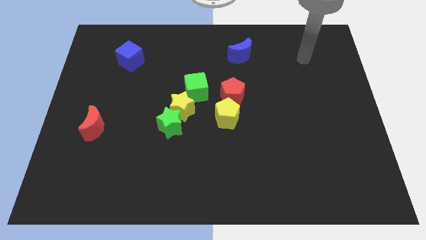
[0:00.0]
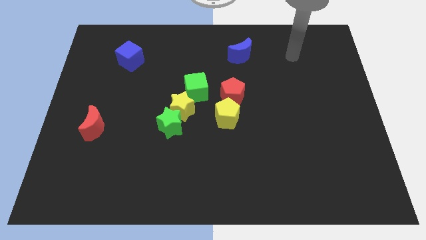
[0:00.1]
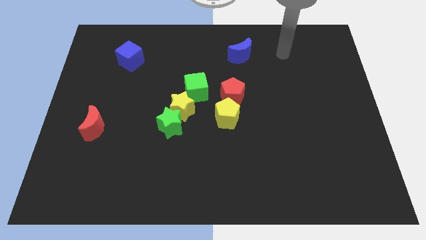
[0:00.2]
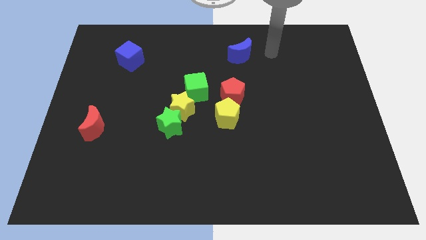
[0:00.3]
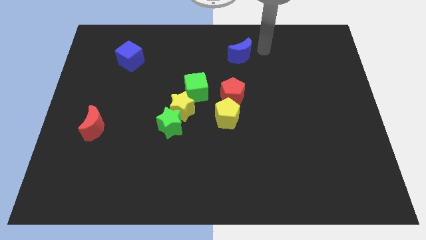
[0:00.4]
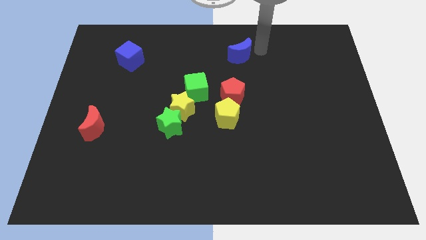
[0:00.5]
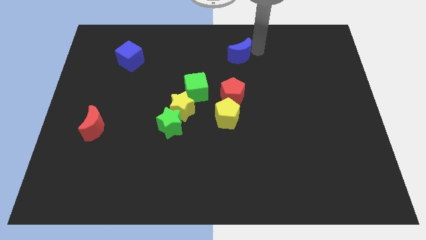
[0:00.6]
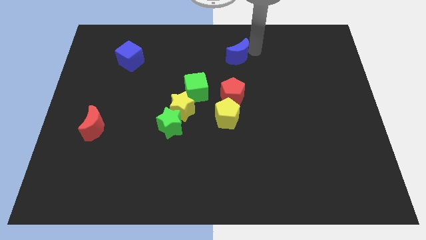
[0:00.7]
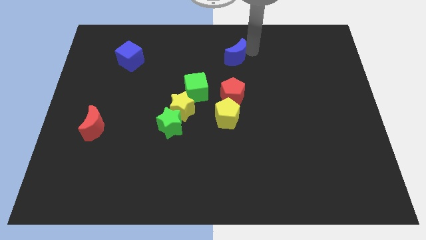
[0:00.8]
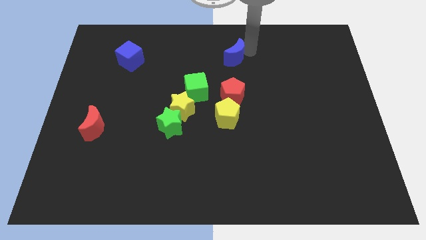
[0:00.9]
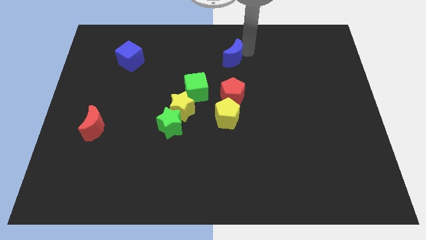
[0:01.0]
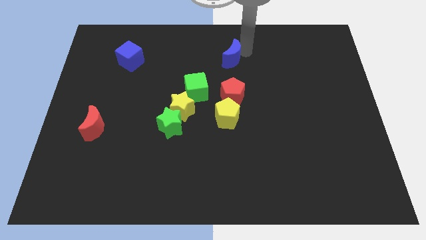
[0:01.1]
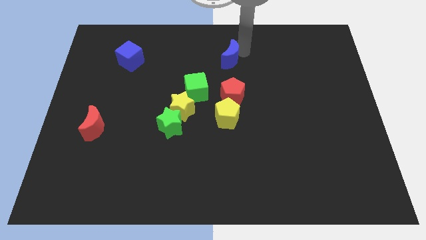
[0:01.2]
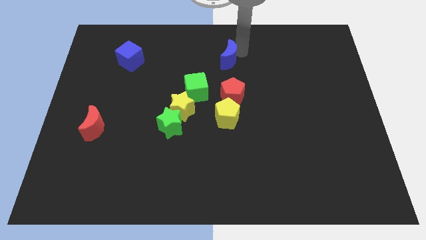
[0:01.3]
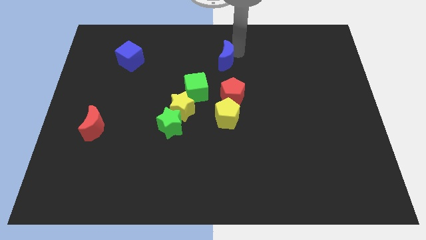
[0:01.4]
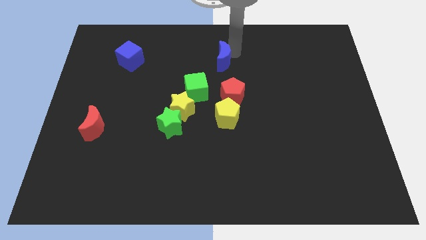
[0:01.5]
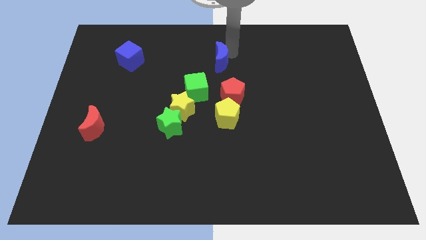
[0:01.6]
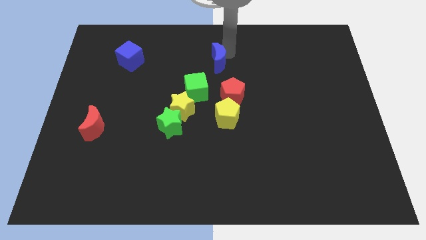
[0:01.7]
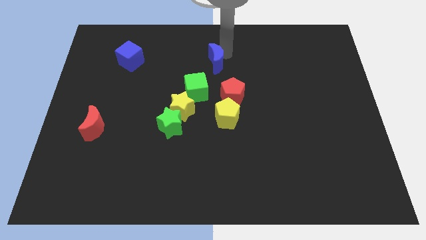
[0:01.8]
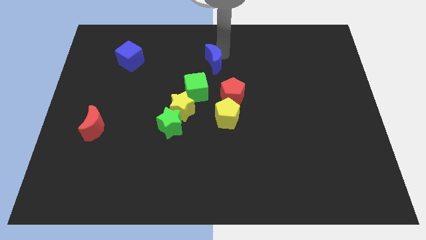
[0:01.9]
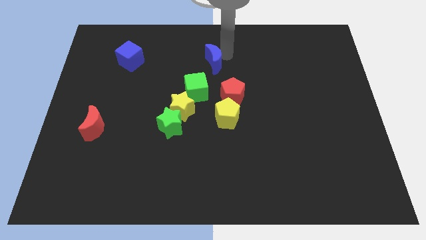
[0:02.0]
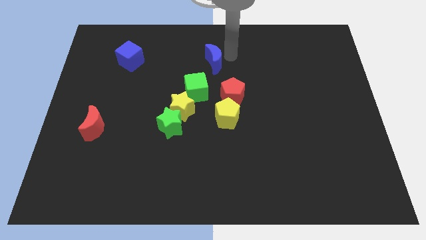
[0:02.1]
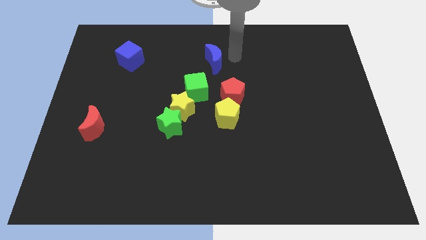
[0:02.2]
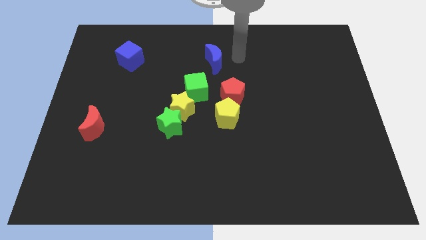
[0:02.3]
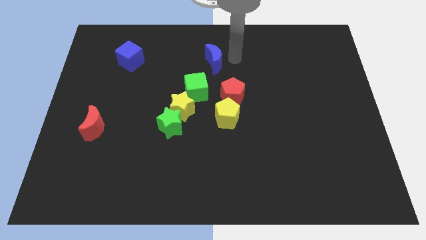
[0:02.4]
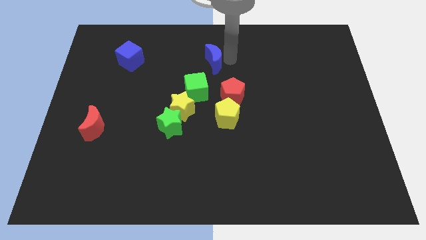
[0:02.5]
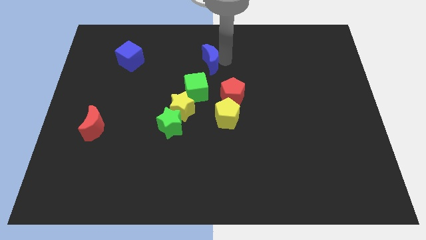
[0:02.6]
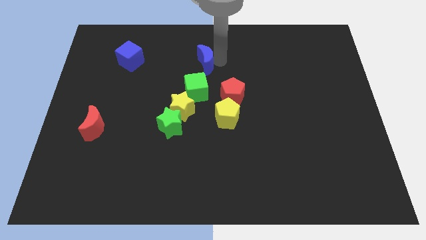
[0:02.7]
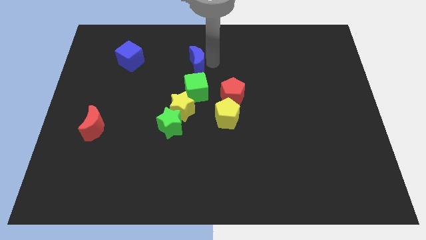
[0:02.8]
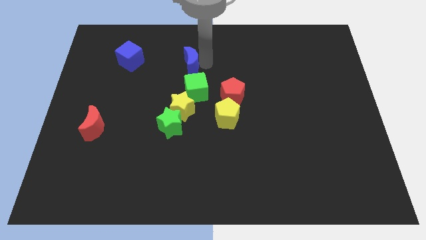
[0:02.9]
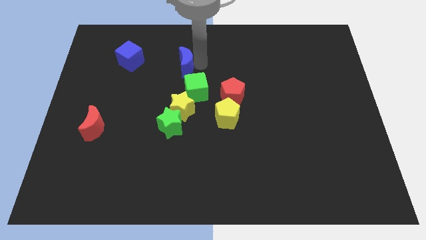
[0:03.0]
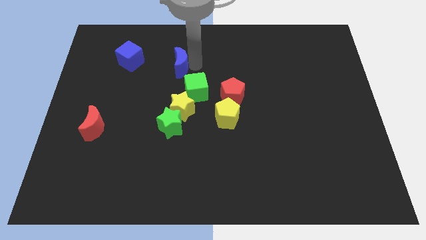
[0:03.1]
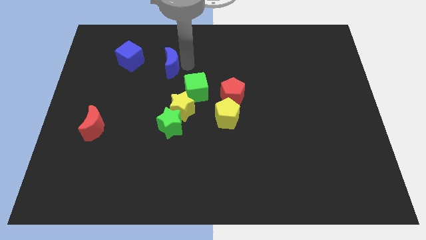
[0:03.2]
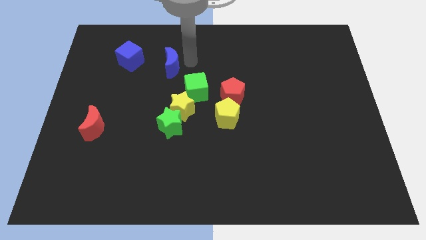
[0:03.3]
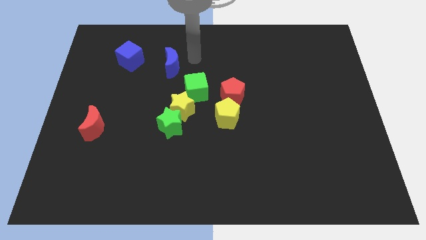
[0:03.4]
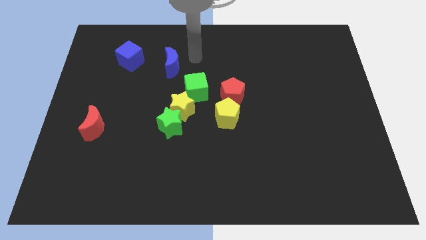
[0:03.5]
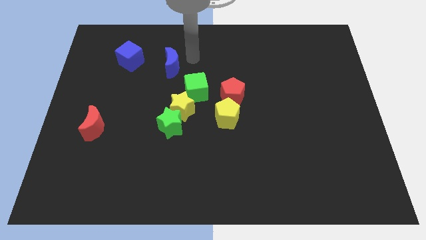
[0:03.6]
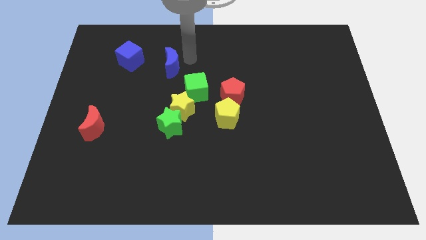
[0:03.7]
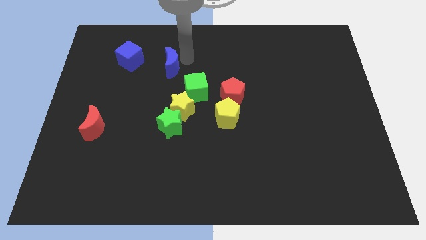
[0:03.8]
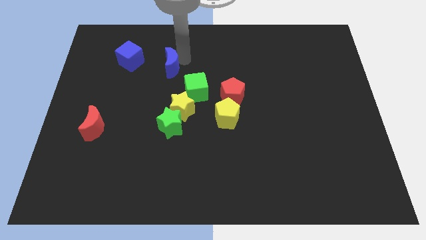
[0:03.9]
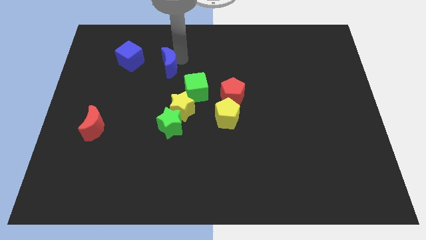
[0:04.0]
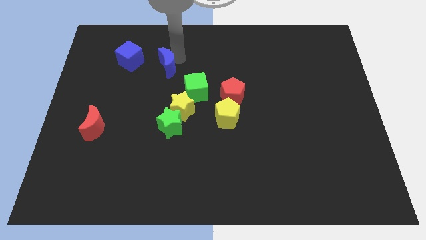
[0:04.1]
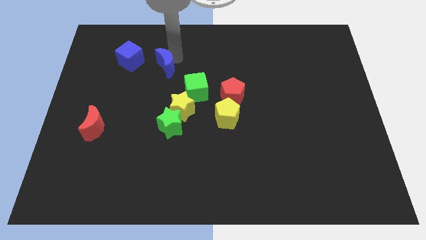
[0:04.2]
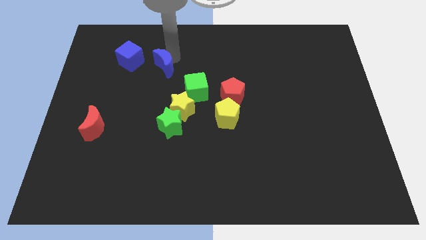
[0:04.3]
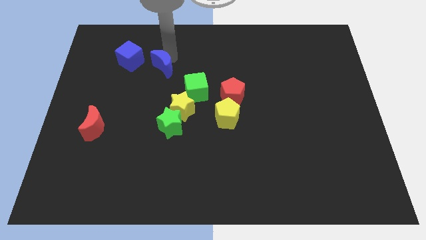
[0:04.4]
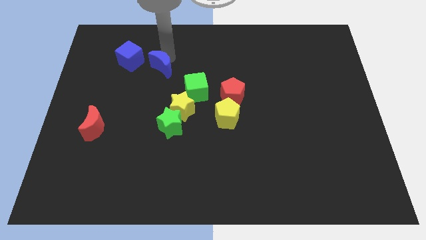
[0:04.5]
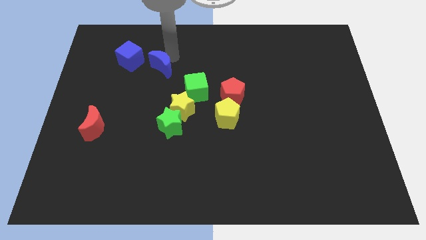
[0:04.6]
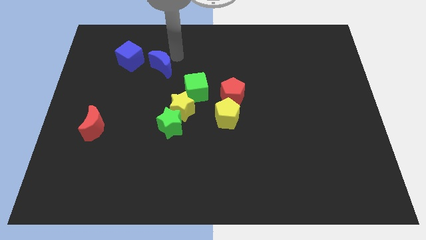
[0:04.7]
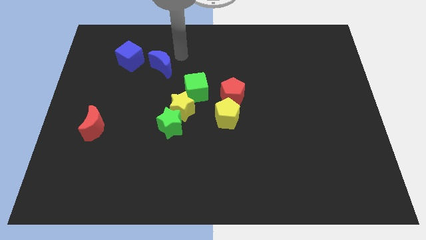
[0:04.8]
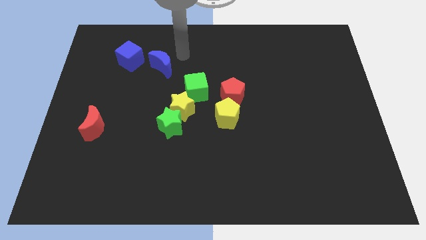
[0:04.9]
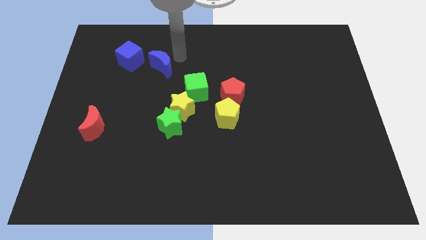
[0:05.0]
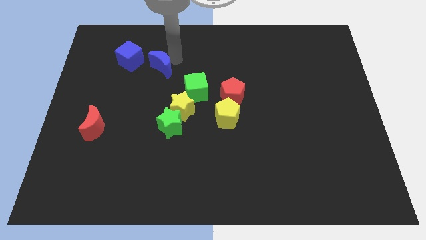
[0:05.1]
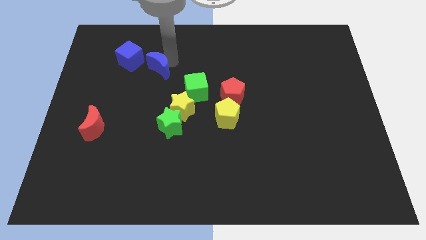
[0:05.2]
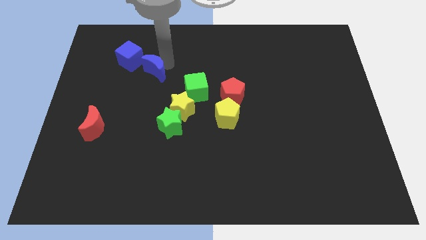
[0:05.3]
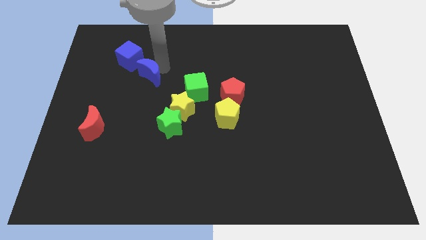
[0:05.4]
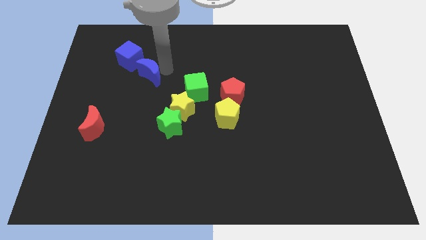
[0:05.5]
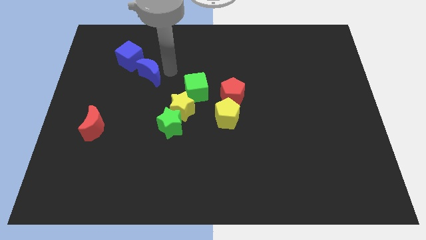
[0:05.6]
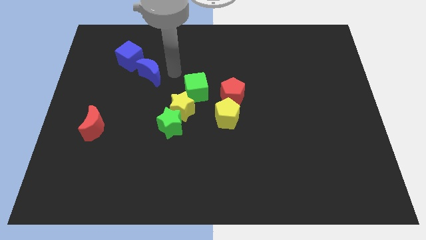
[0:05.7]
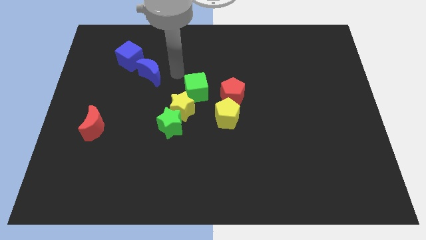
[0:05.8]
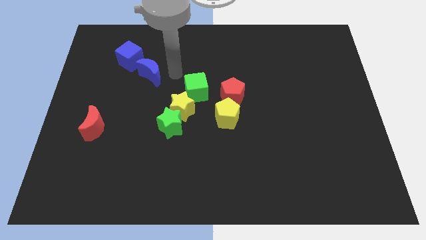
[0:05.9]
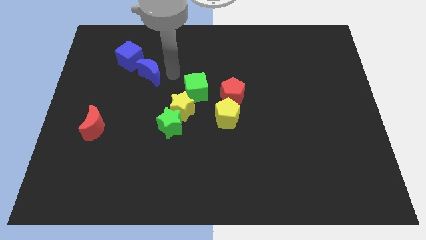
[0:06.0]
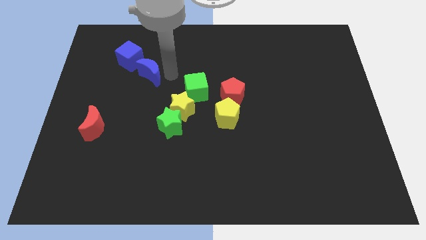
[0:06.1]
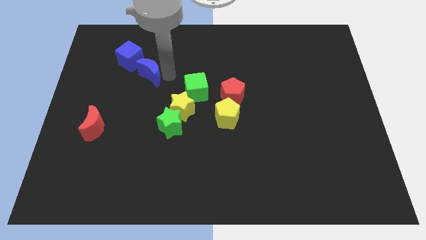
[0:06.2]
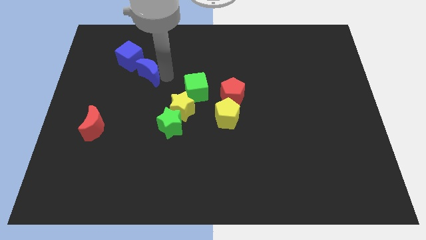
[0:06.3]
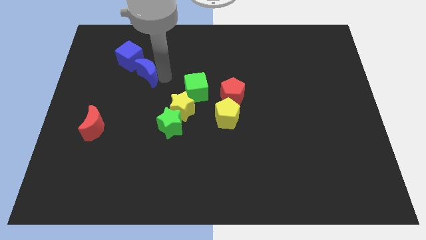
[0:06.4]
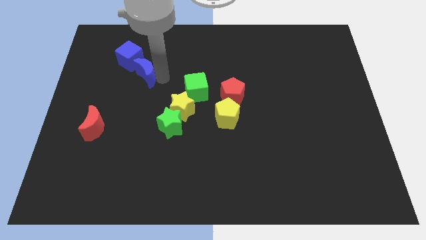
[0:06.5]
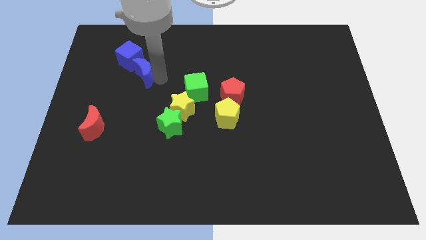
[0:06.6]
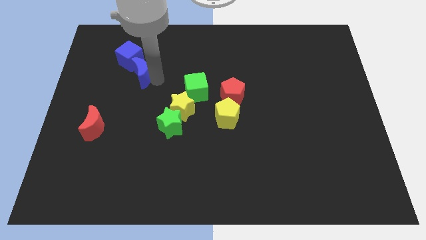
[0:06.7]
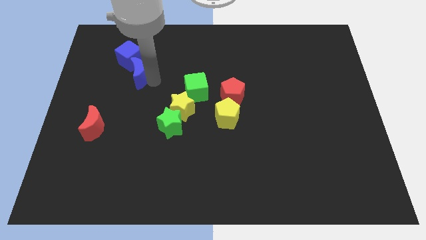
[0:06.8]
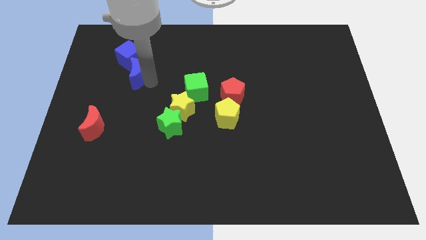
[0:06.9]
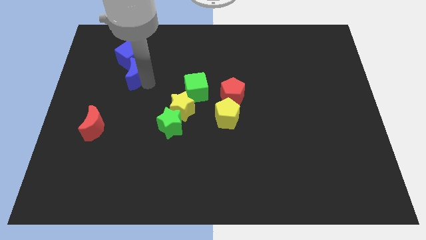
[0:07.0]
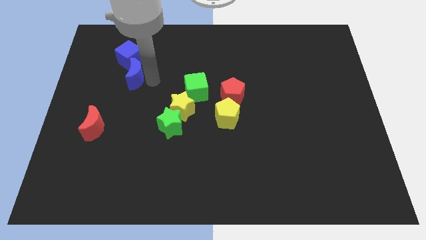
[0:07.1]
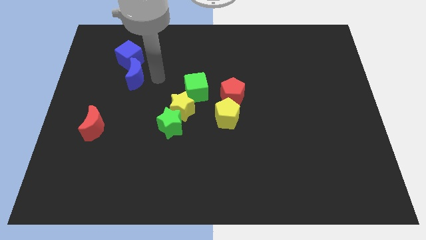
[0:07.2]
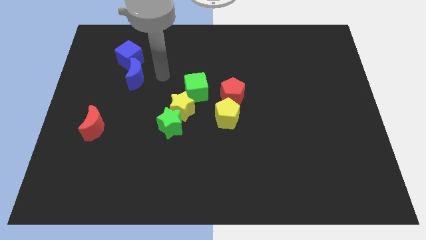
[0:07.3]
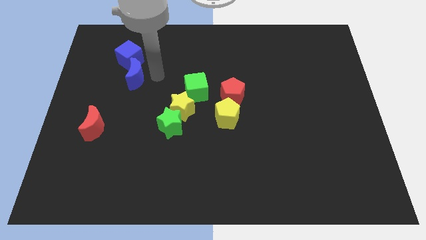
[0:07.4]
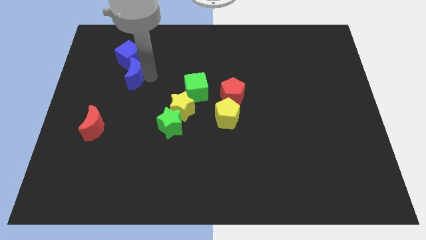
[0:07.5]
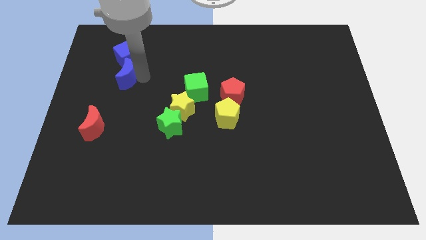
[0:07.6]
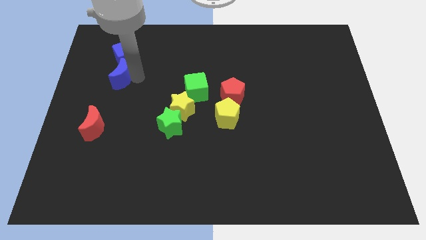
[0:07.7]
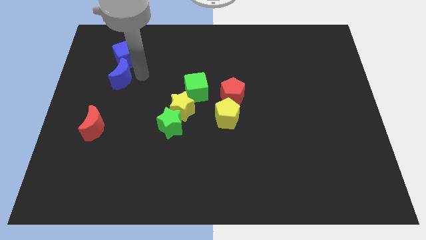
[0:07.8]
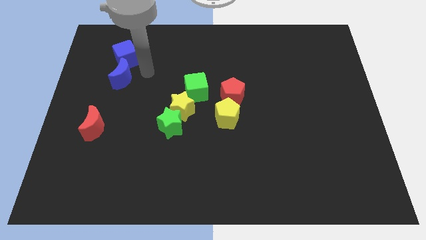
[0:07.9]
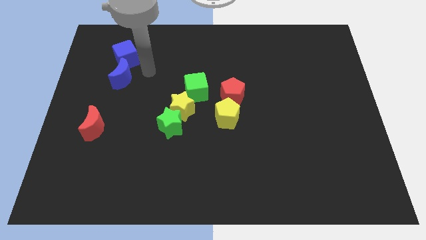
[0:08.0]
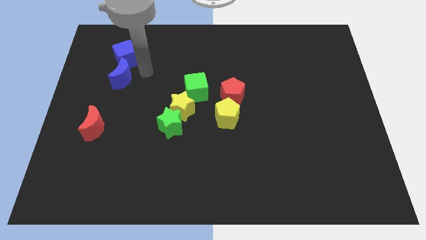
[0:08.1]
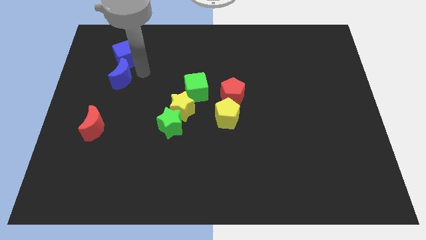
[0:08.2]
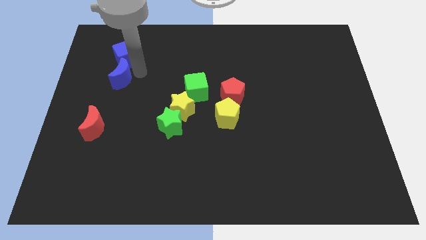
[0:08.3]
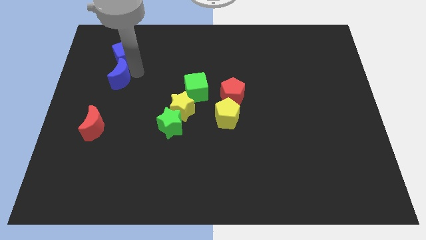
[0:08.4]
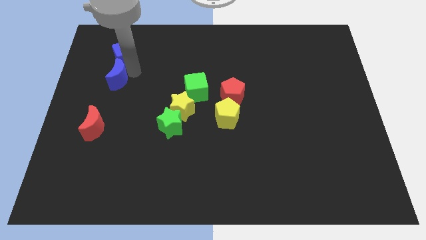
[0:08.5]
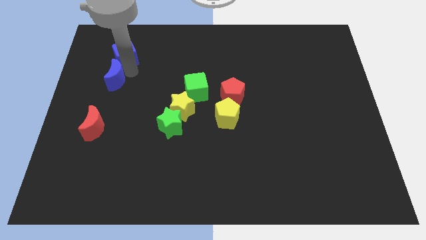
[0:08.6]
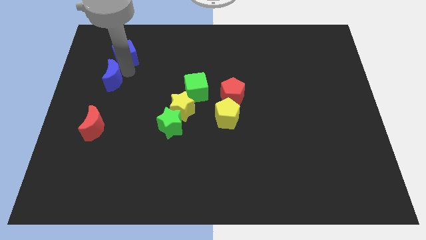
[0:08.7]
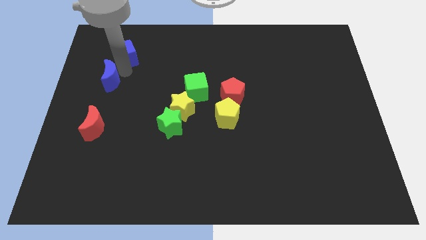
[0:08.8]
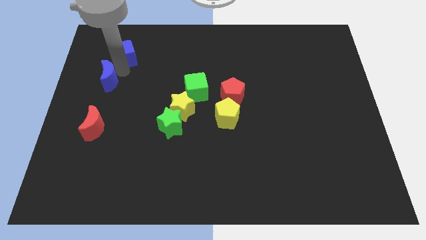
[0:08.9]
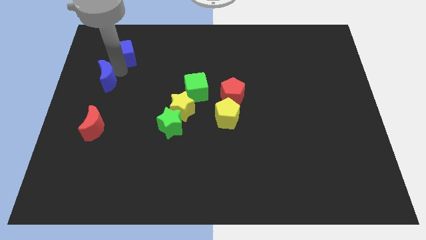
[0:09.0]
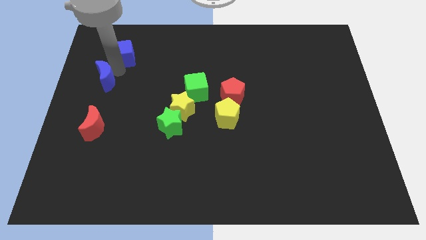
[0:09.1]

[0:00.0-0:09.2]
slide the blue moon to the left side
